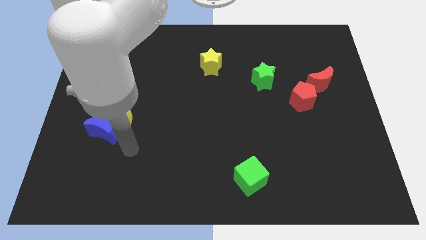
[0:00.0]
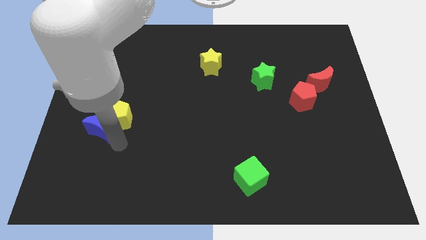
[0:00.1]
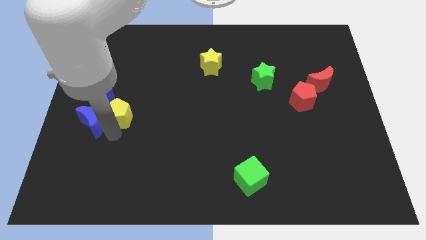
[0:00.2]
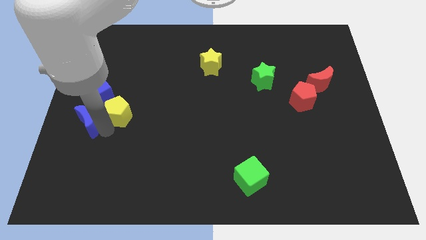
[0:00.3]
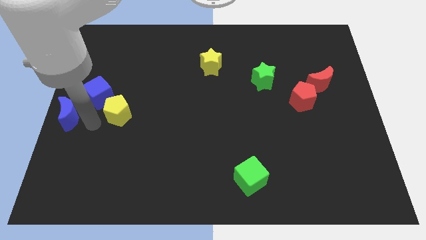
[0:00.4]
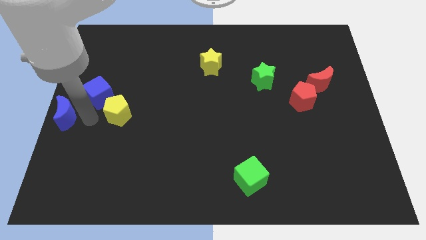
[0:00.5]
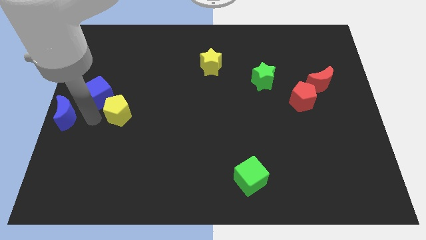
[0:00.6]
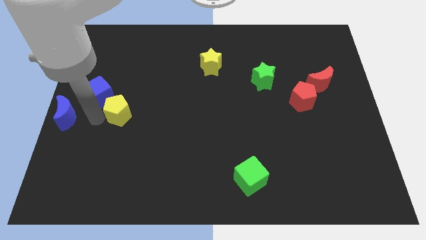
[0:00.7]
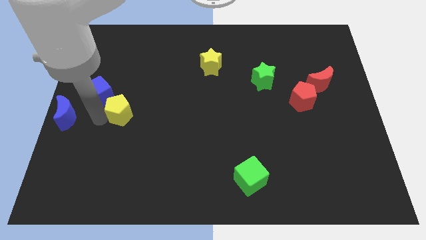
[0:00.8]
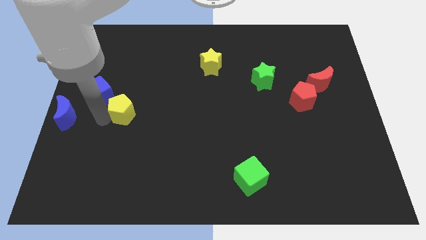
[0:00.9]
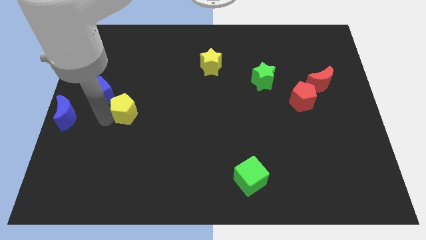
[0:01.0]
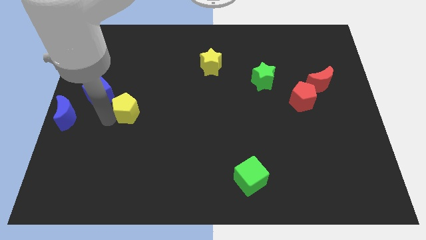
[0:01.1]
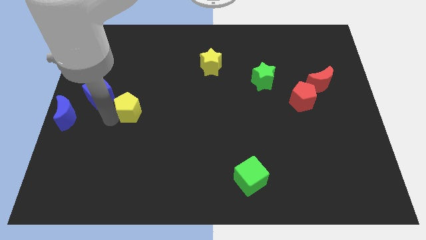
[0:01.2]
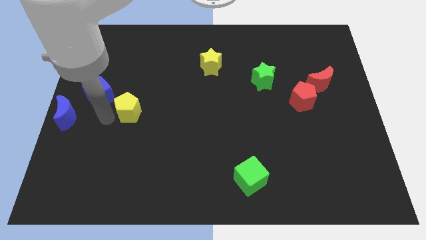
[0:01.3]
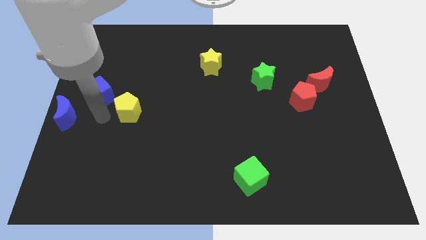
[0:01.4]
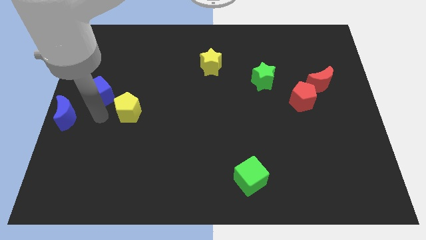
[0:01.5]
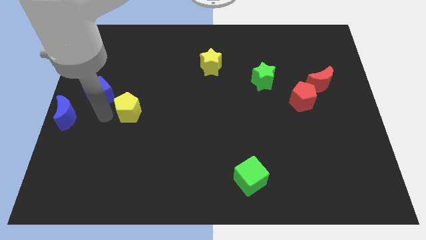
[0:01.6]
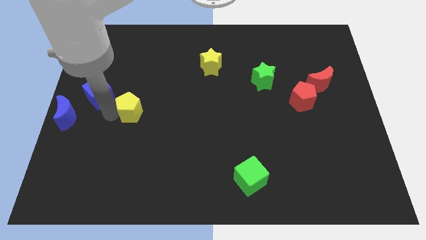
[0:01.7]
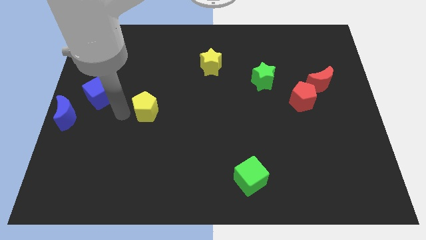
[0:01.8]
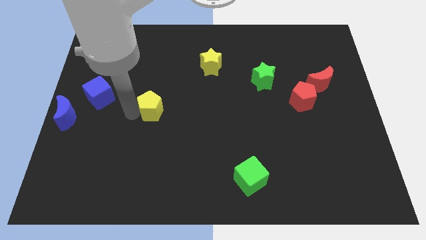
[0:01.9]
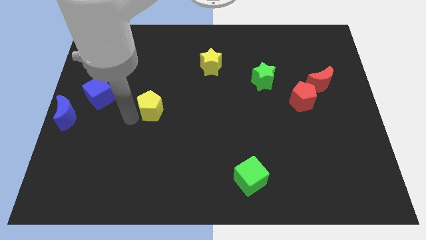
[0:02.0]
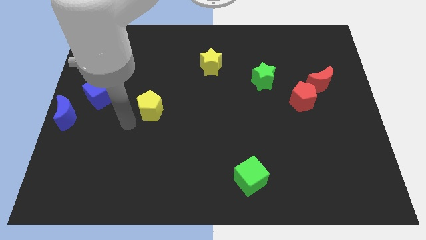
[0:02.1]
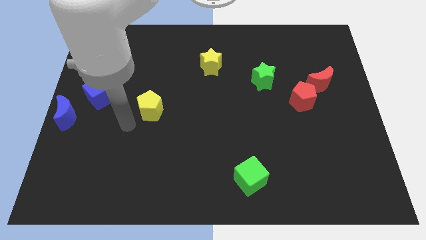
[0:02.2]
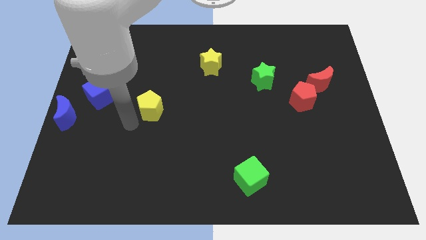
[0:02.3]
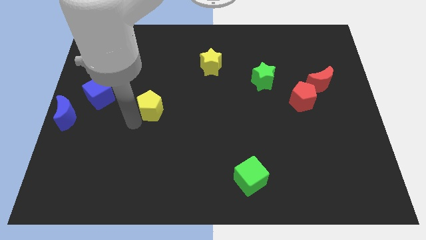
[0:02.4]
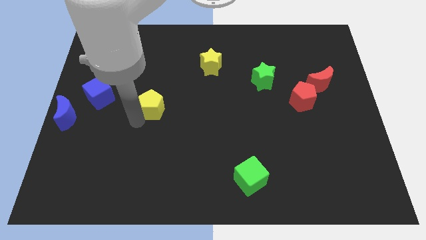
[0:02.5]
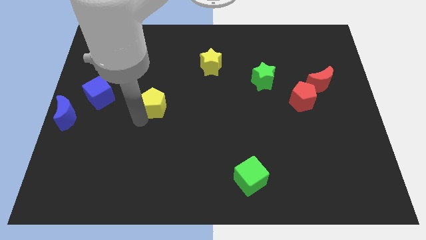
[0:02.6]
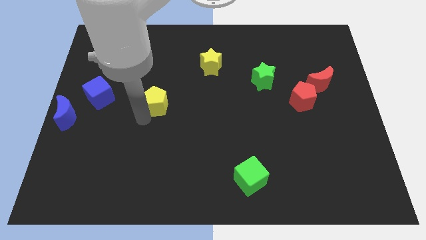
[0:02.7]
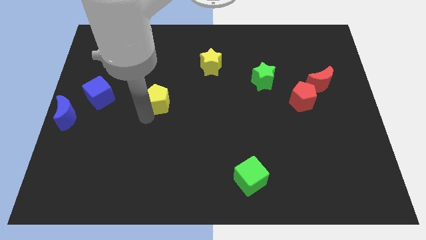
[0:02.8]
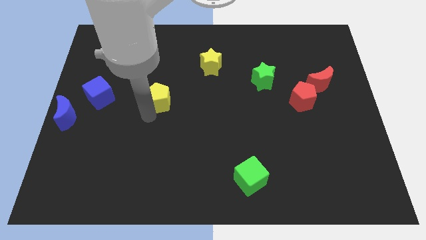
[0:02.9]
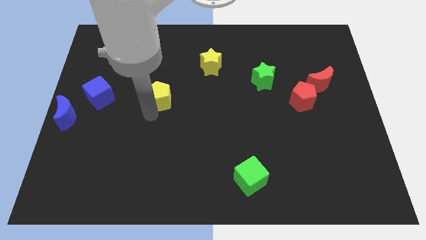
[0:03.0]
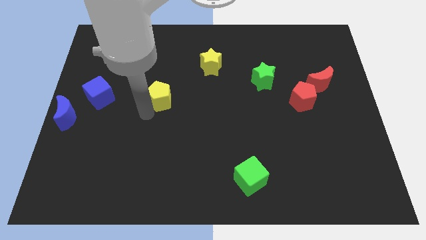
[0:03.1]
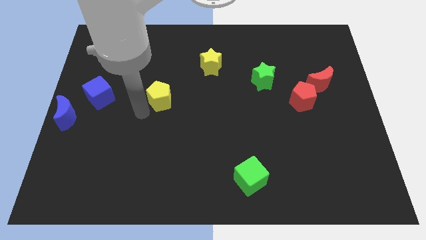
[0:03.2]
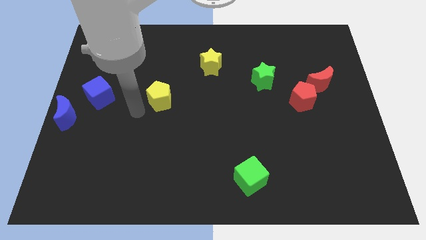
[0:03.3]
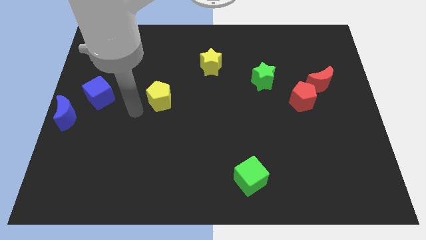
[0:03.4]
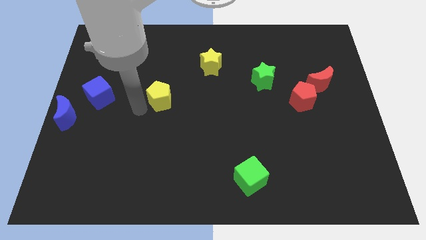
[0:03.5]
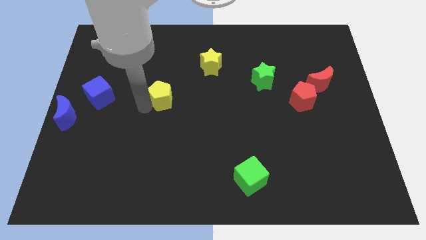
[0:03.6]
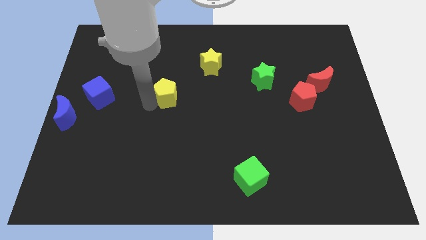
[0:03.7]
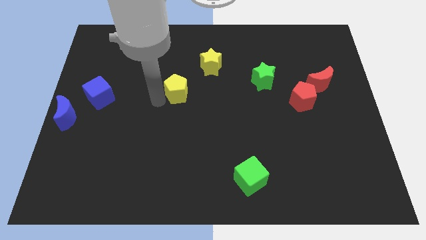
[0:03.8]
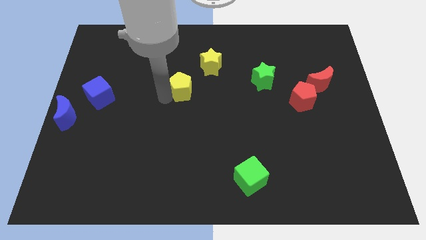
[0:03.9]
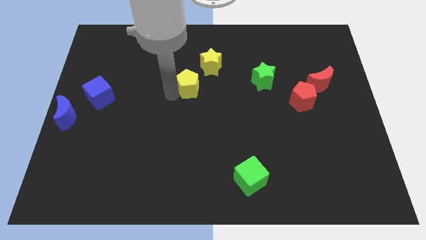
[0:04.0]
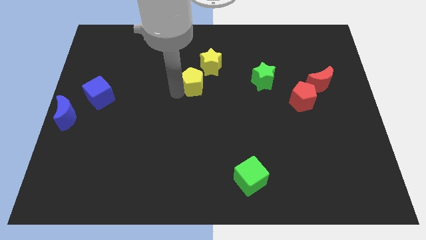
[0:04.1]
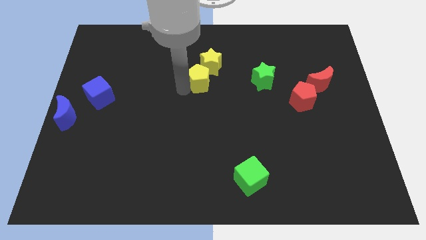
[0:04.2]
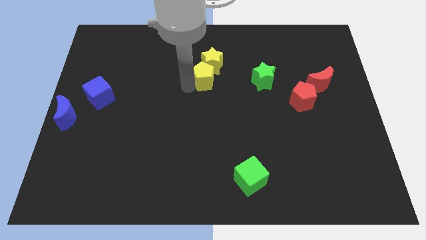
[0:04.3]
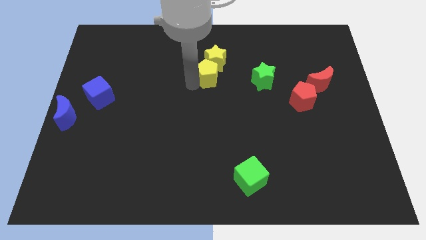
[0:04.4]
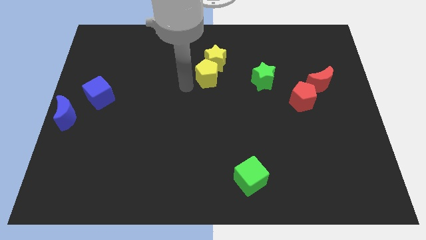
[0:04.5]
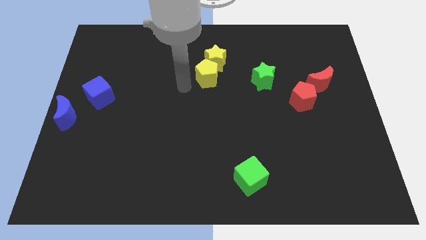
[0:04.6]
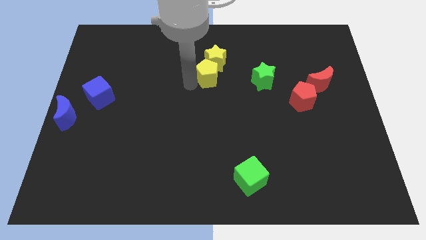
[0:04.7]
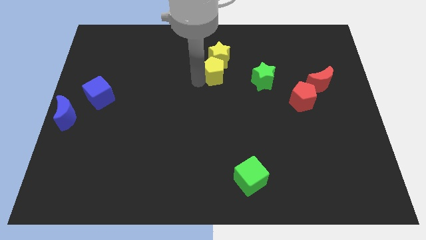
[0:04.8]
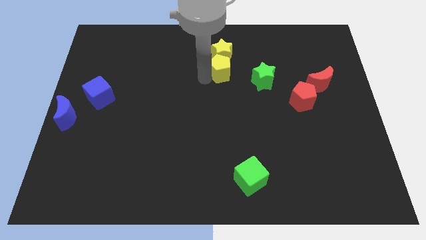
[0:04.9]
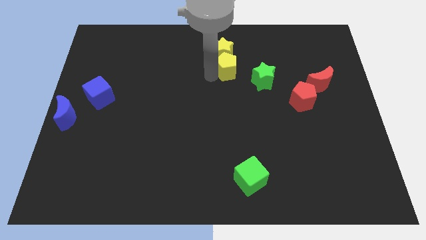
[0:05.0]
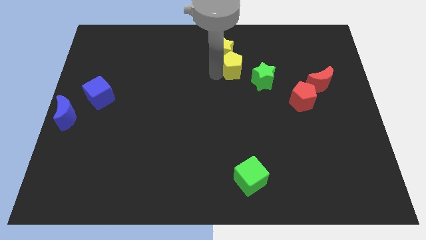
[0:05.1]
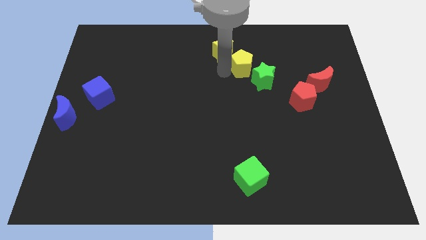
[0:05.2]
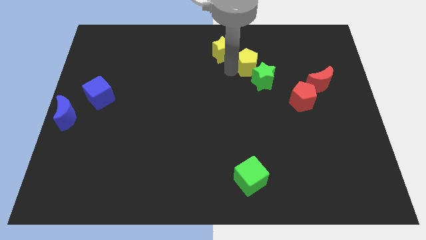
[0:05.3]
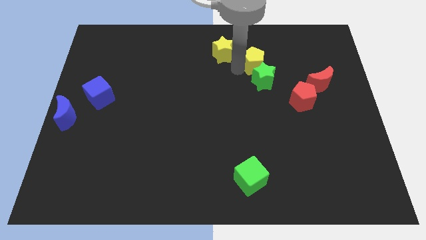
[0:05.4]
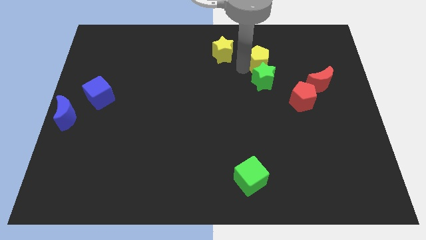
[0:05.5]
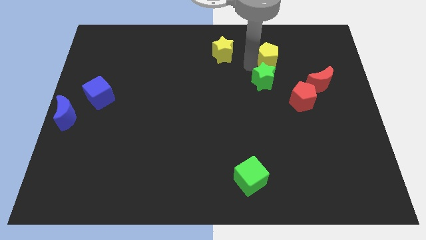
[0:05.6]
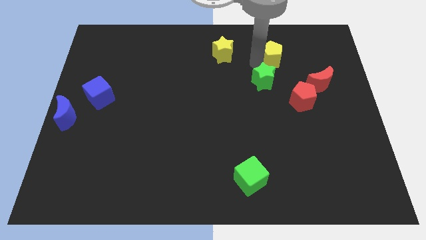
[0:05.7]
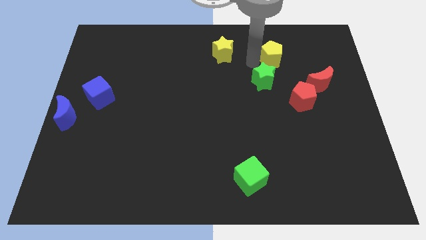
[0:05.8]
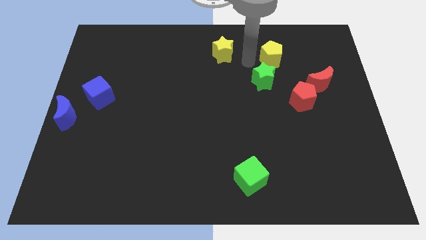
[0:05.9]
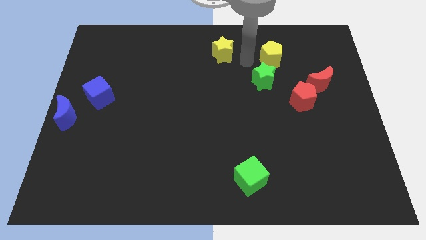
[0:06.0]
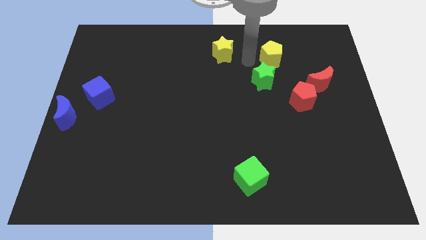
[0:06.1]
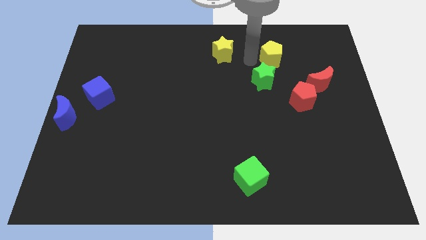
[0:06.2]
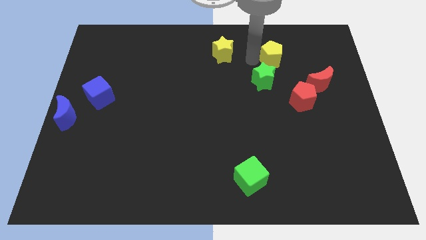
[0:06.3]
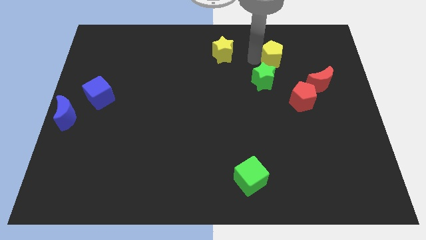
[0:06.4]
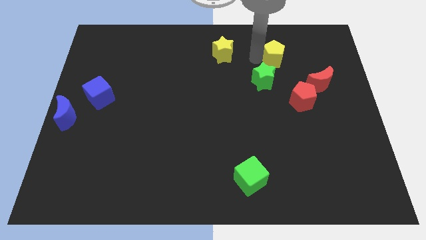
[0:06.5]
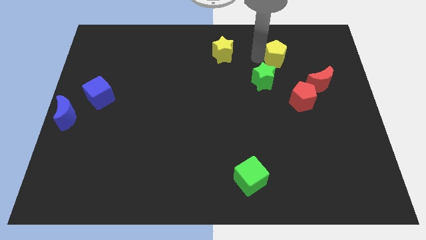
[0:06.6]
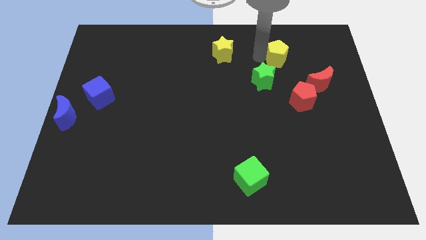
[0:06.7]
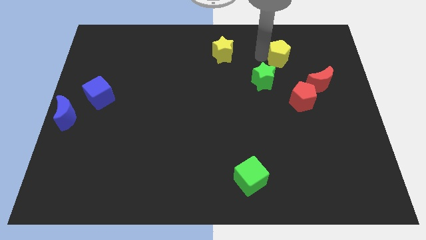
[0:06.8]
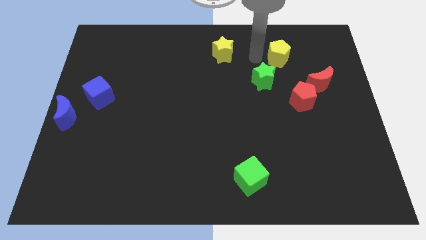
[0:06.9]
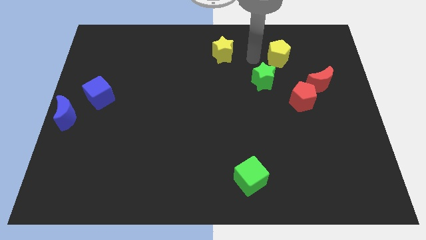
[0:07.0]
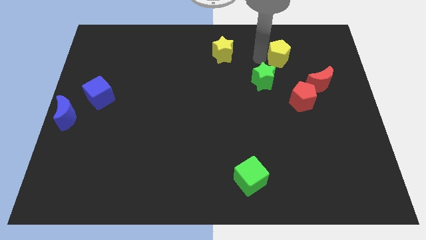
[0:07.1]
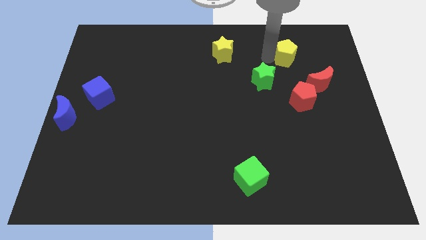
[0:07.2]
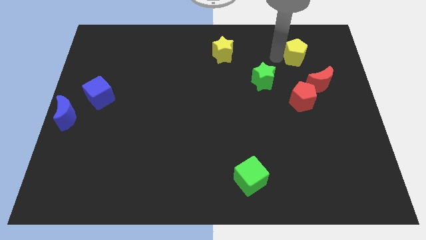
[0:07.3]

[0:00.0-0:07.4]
push the yellow pentagon above the red moon
